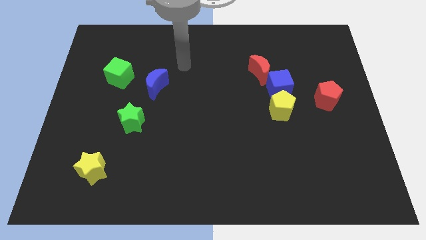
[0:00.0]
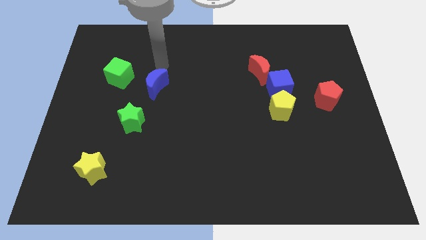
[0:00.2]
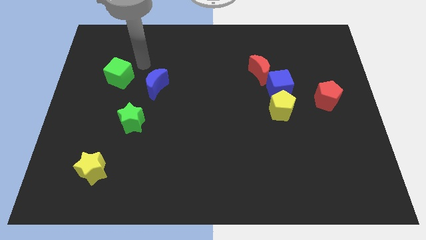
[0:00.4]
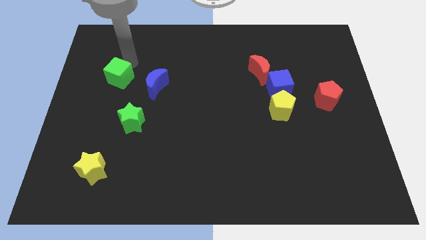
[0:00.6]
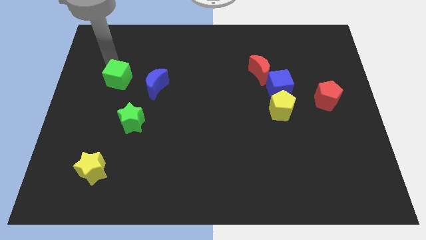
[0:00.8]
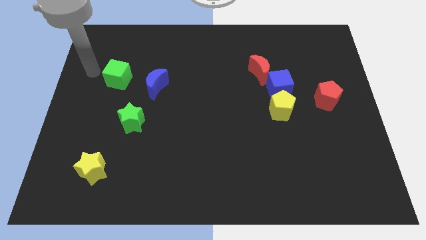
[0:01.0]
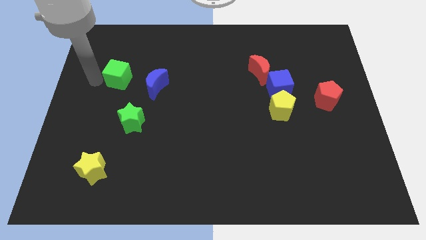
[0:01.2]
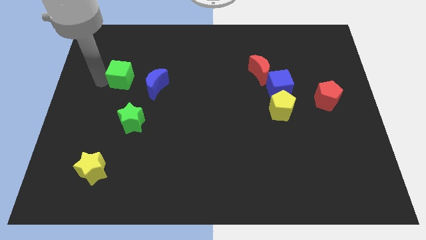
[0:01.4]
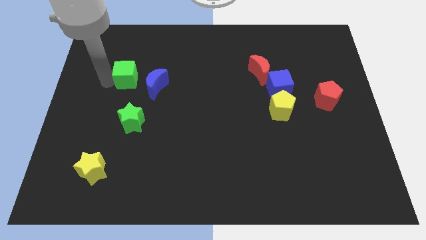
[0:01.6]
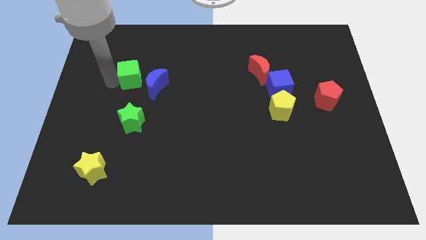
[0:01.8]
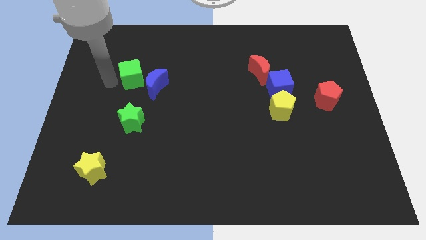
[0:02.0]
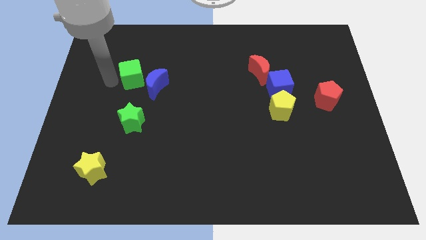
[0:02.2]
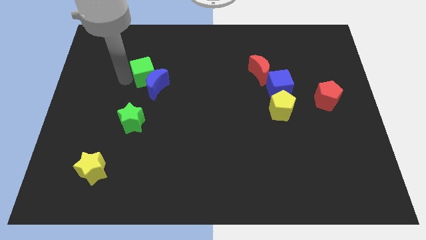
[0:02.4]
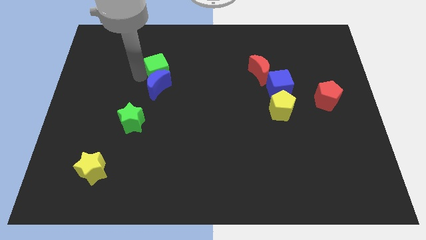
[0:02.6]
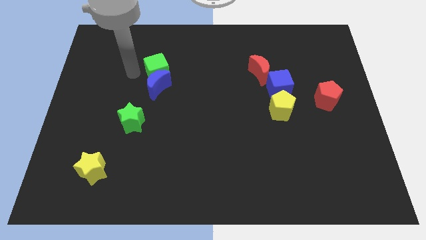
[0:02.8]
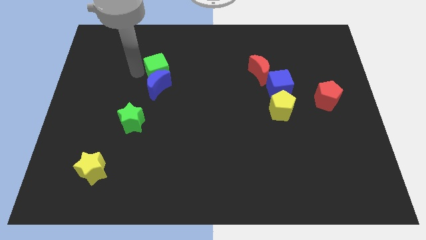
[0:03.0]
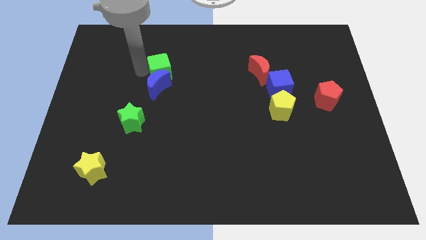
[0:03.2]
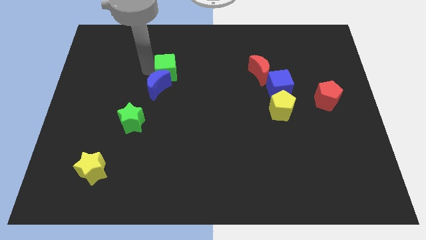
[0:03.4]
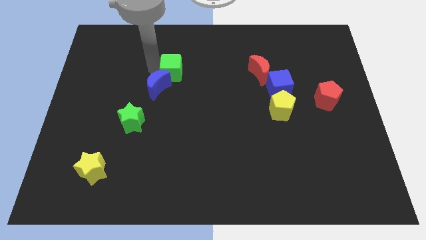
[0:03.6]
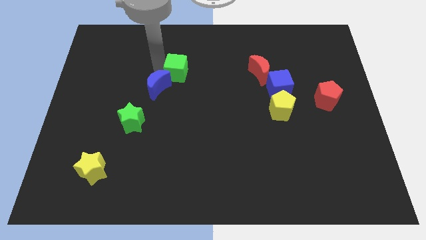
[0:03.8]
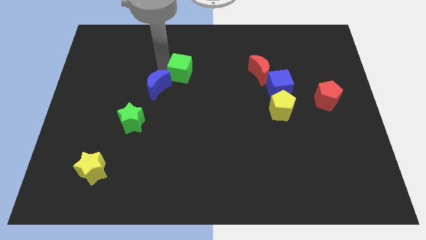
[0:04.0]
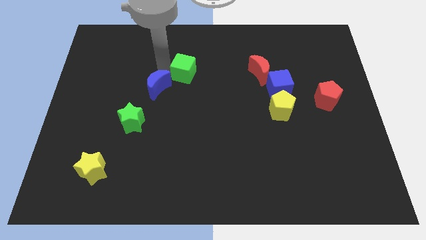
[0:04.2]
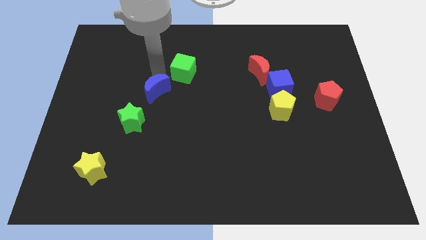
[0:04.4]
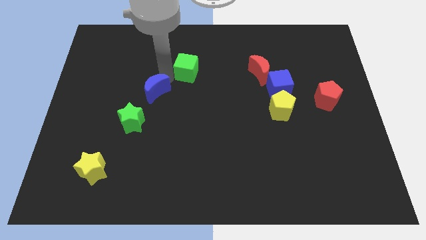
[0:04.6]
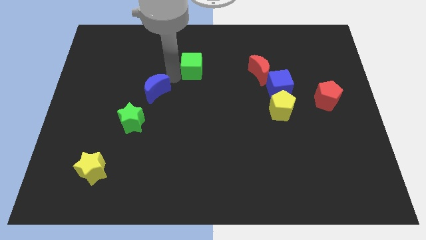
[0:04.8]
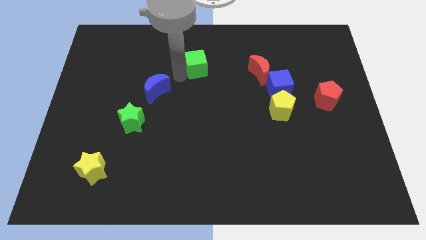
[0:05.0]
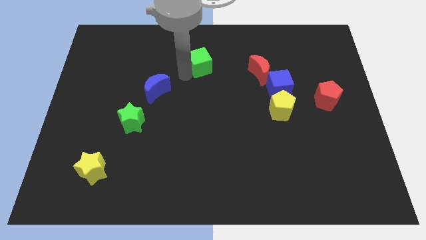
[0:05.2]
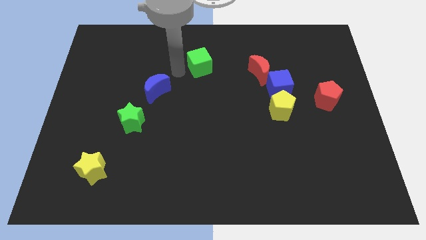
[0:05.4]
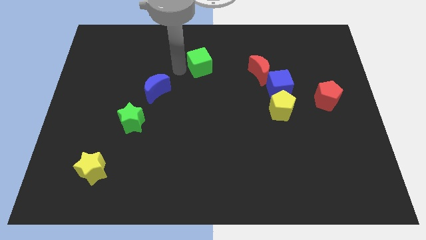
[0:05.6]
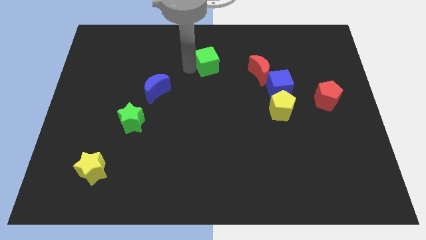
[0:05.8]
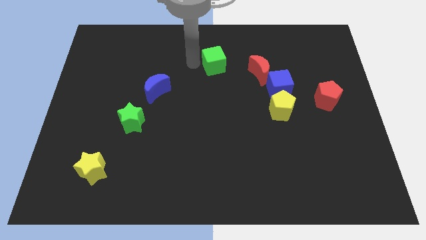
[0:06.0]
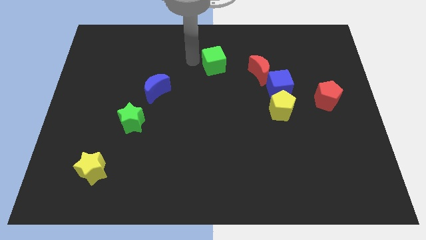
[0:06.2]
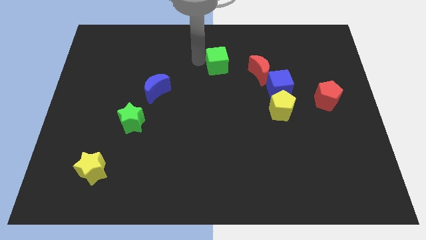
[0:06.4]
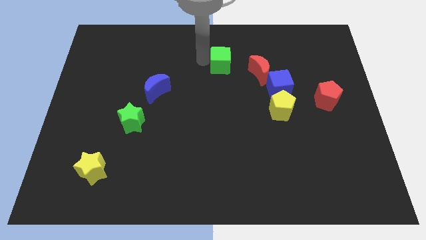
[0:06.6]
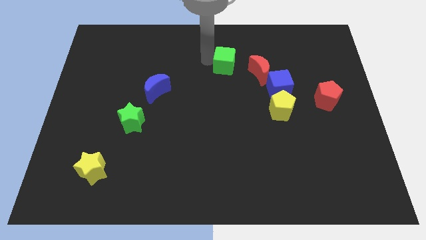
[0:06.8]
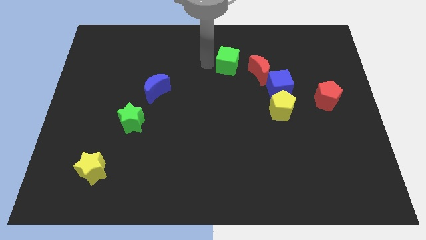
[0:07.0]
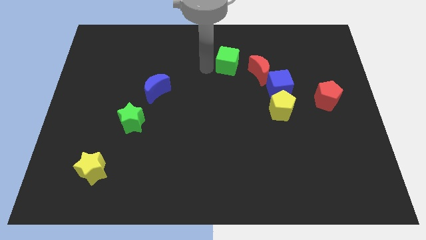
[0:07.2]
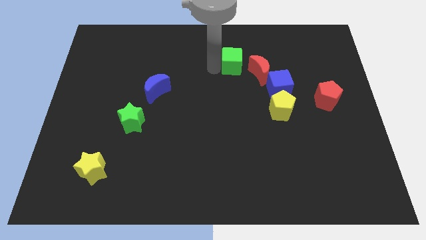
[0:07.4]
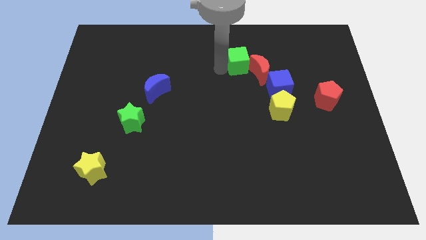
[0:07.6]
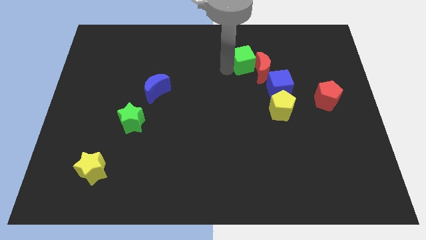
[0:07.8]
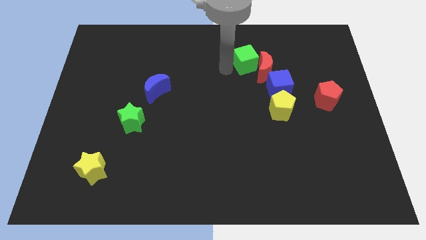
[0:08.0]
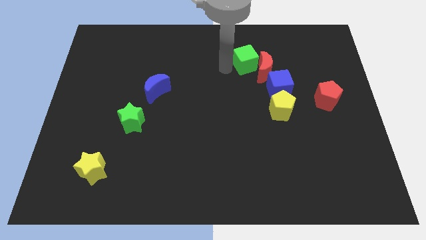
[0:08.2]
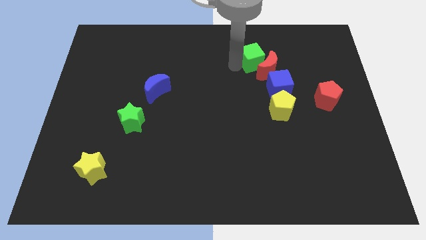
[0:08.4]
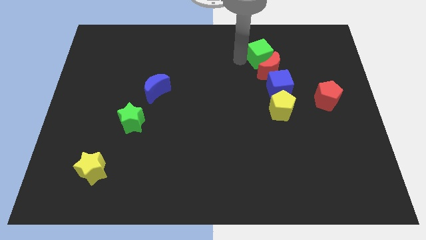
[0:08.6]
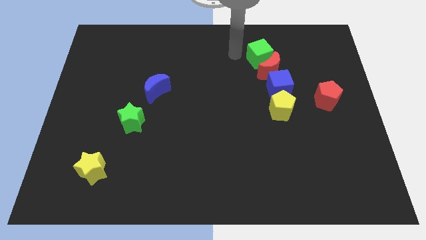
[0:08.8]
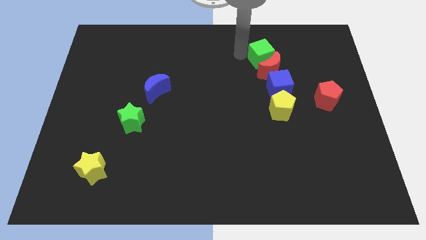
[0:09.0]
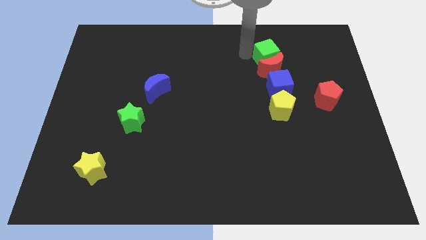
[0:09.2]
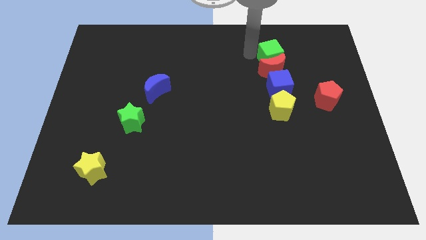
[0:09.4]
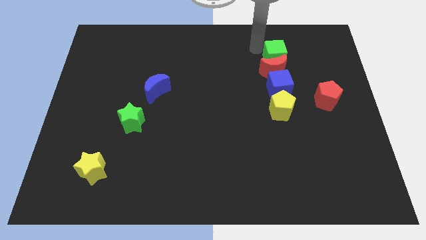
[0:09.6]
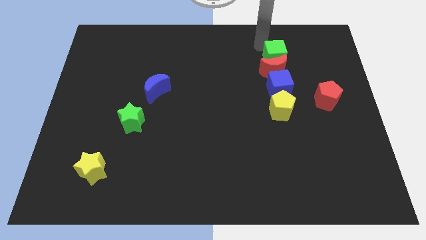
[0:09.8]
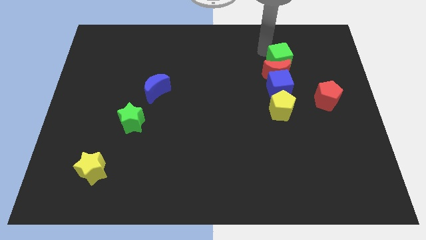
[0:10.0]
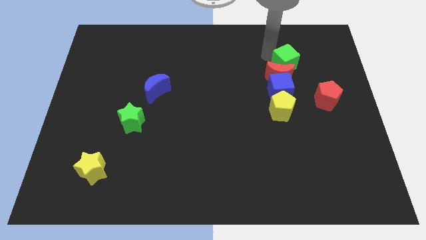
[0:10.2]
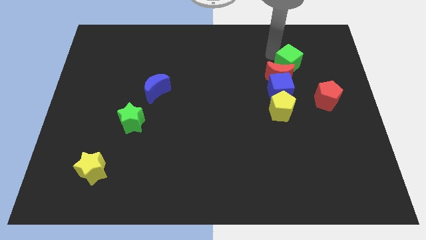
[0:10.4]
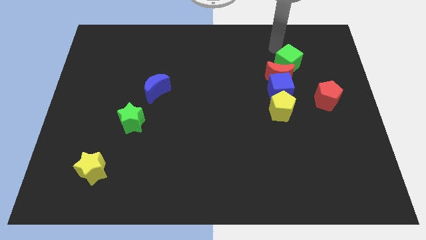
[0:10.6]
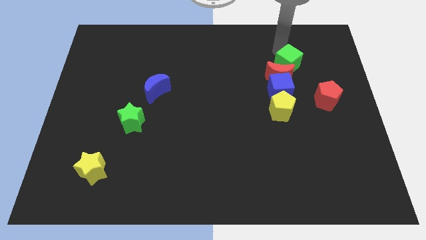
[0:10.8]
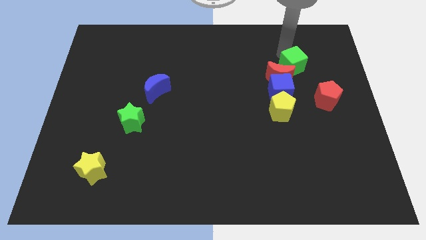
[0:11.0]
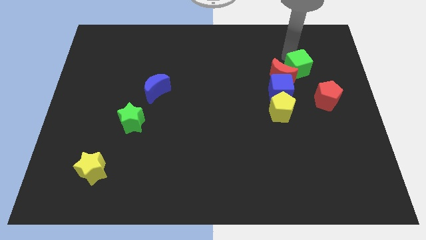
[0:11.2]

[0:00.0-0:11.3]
move the green cube to the top left of the red pentagon

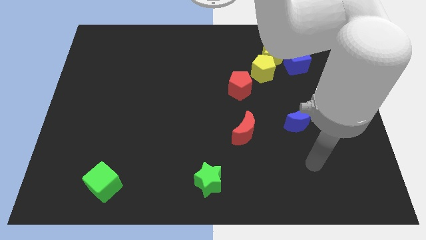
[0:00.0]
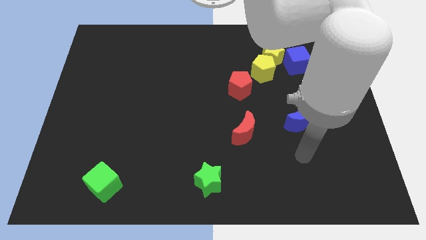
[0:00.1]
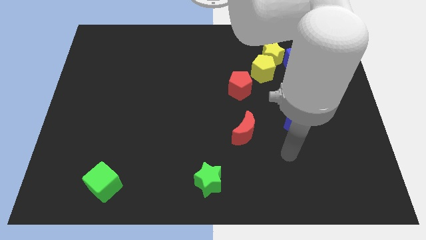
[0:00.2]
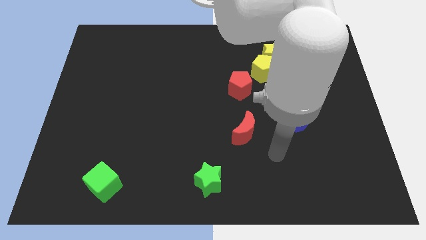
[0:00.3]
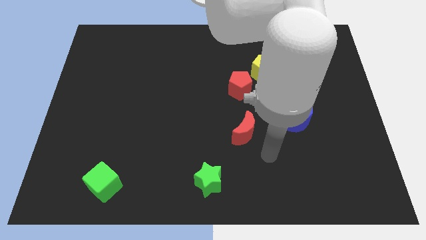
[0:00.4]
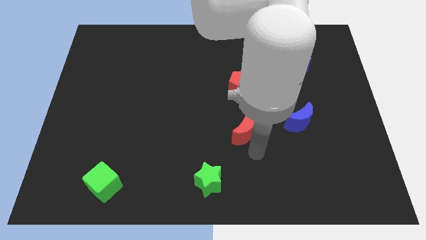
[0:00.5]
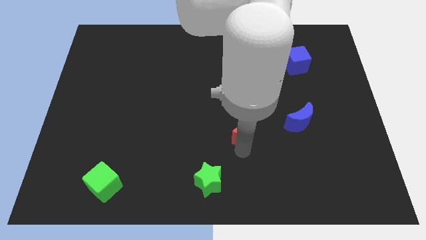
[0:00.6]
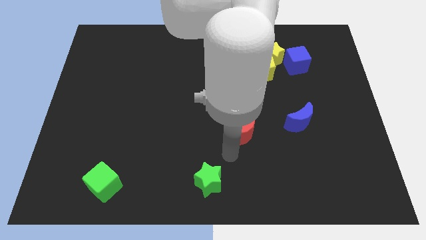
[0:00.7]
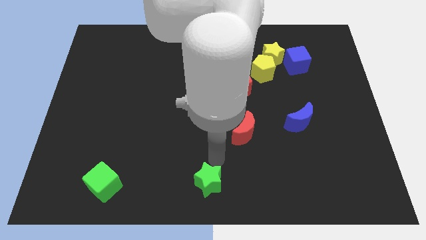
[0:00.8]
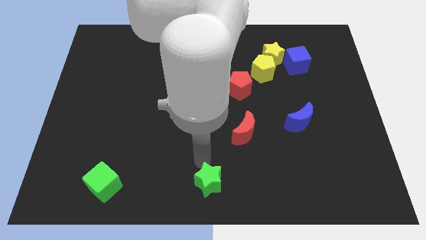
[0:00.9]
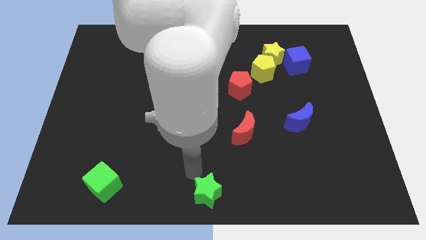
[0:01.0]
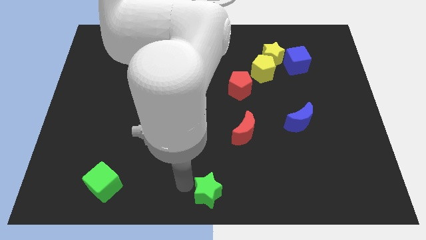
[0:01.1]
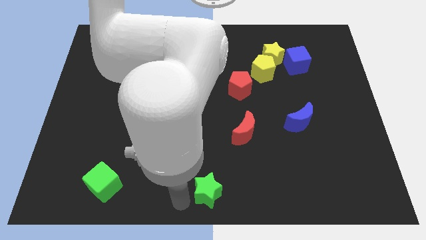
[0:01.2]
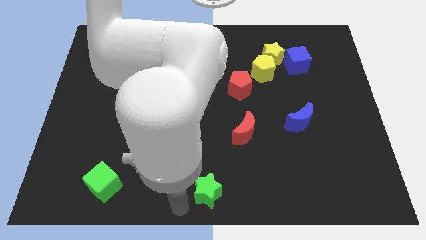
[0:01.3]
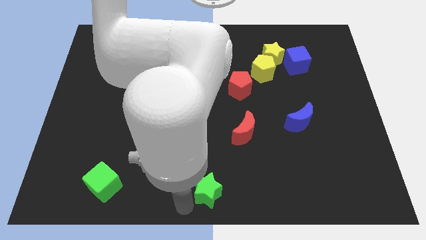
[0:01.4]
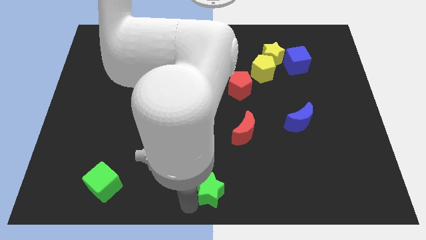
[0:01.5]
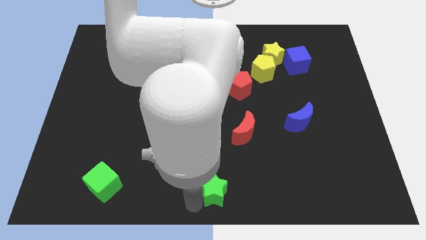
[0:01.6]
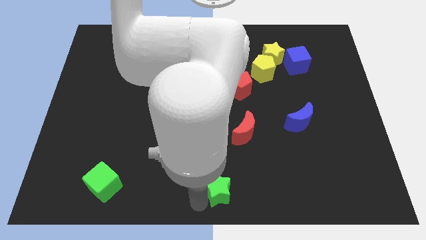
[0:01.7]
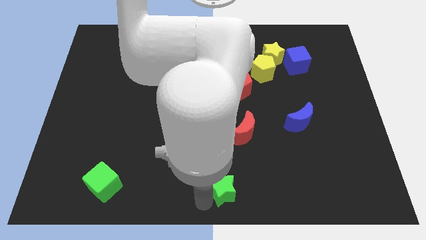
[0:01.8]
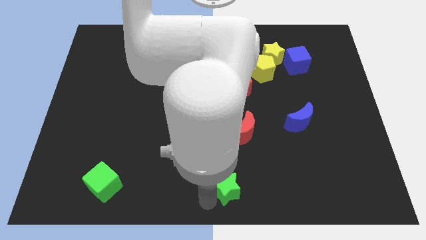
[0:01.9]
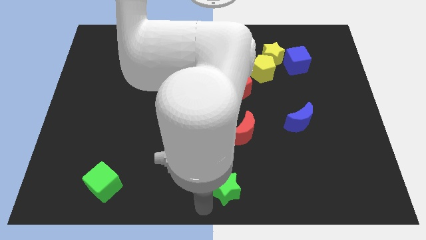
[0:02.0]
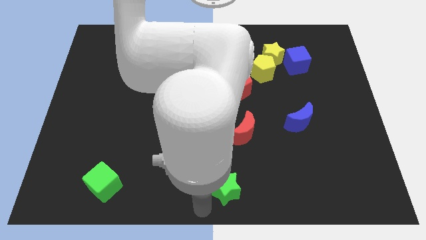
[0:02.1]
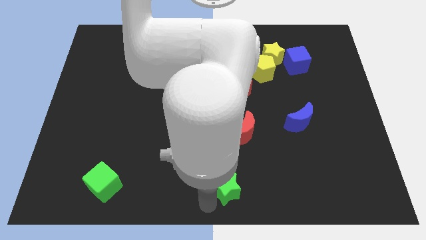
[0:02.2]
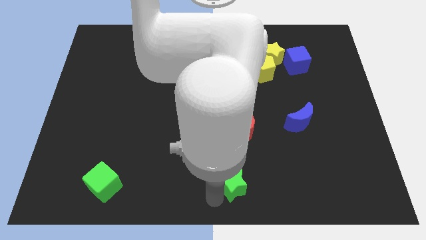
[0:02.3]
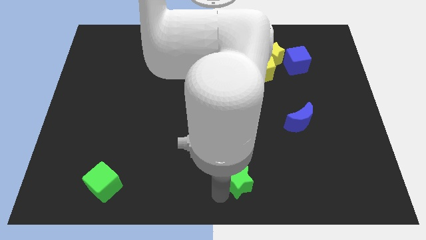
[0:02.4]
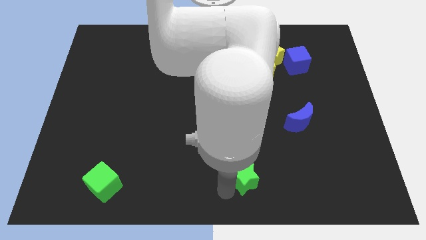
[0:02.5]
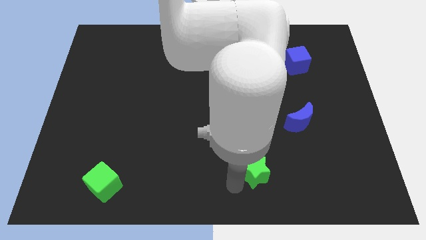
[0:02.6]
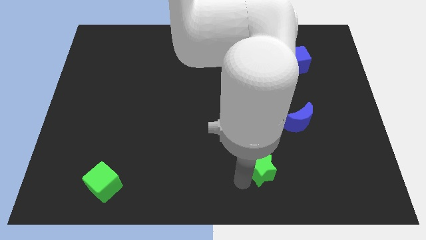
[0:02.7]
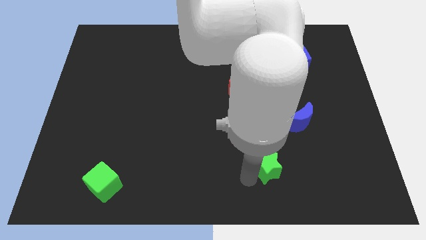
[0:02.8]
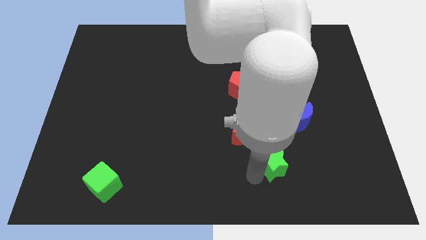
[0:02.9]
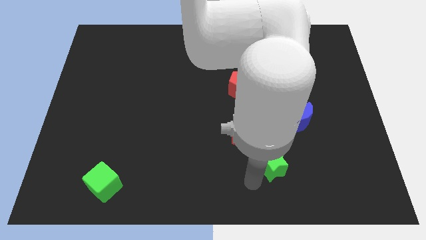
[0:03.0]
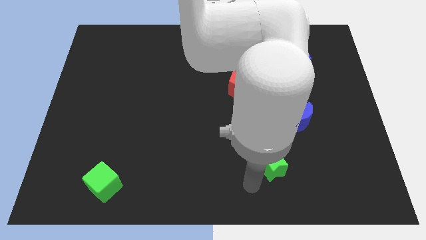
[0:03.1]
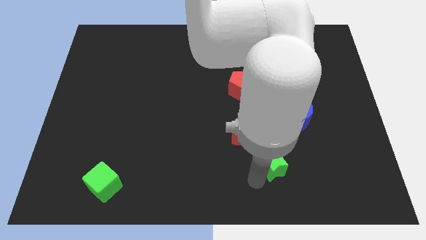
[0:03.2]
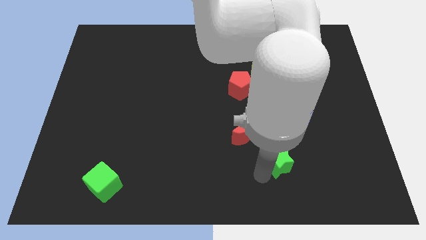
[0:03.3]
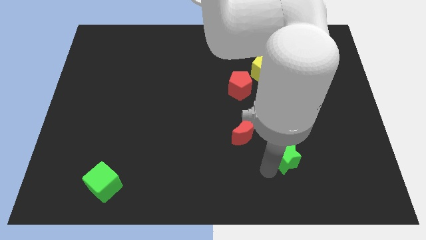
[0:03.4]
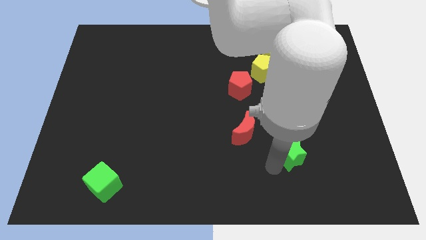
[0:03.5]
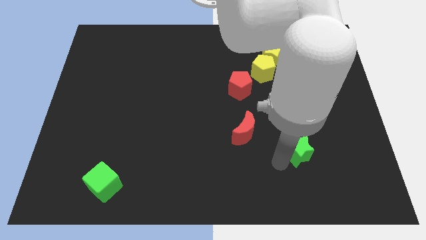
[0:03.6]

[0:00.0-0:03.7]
slide the green star to the right of the red moon
